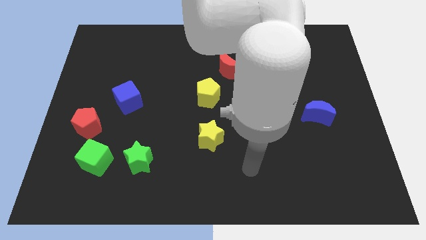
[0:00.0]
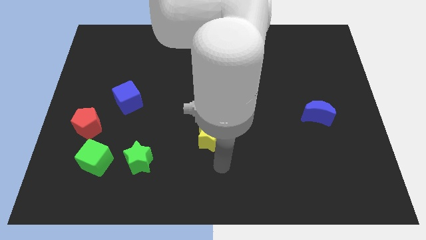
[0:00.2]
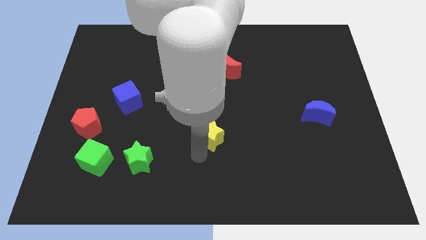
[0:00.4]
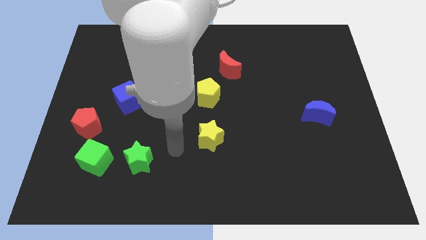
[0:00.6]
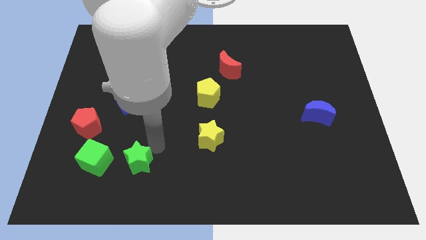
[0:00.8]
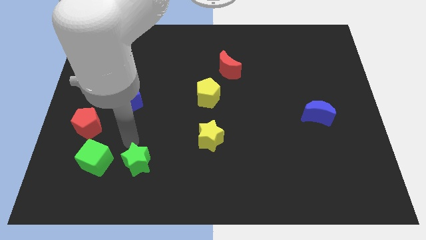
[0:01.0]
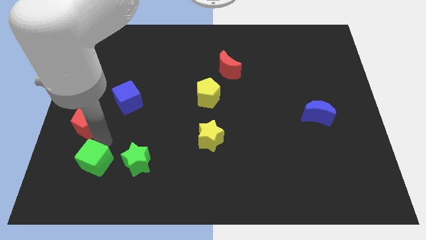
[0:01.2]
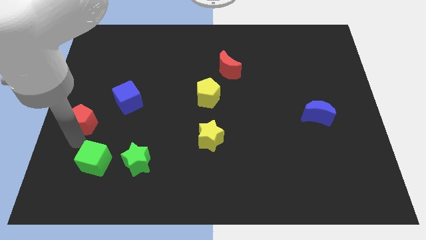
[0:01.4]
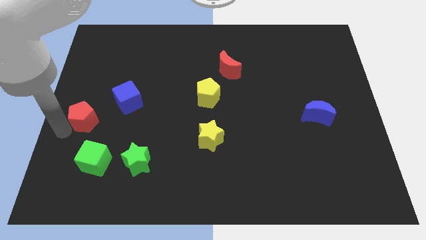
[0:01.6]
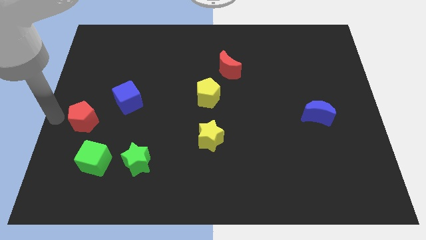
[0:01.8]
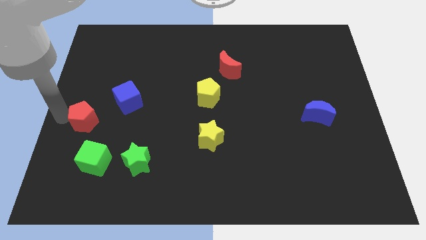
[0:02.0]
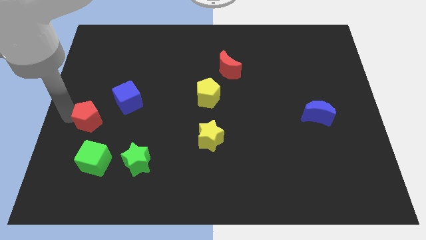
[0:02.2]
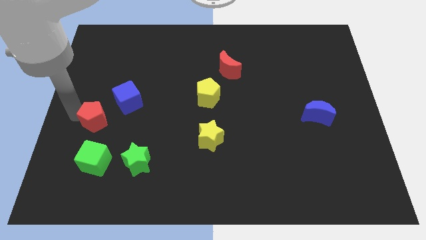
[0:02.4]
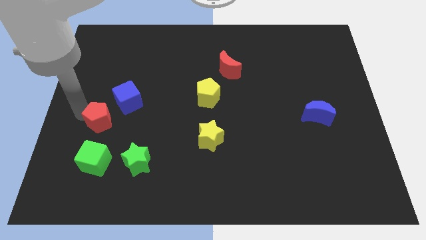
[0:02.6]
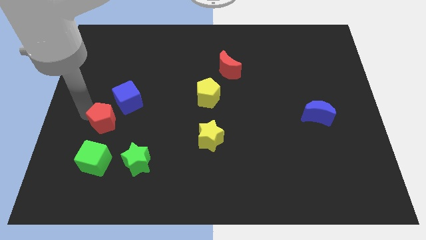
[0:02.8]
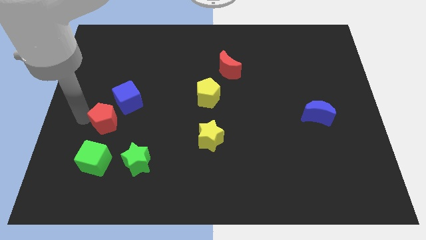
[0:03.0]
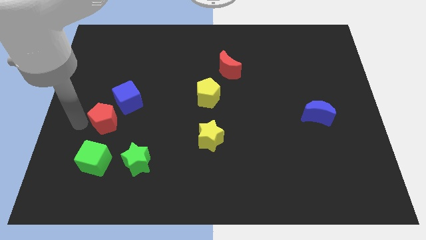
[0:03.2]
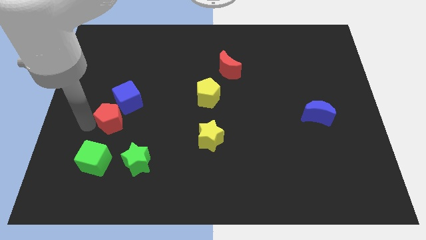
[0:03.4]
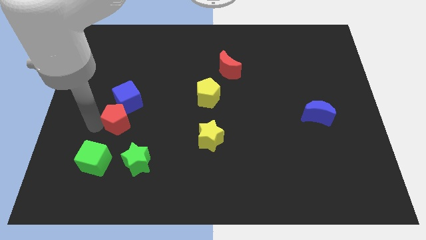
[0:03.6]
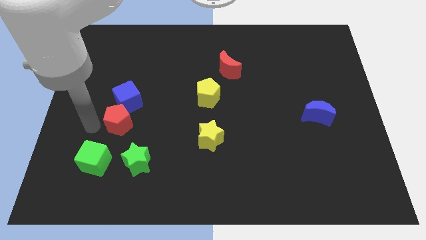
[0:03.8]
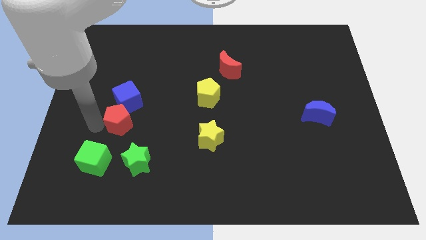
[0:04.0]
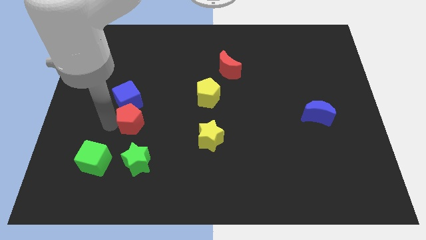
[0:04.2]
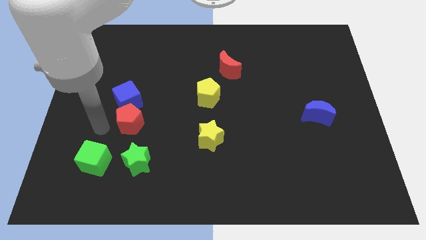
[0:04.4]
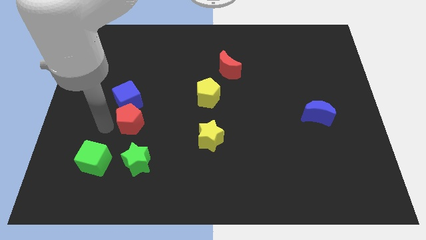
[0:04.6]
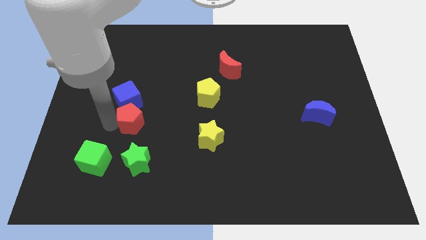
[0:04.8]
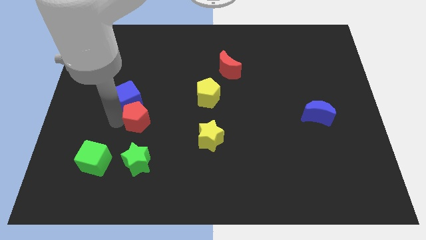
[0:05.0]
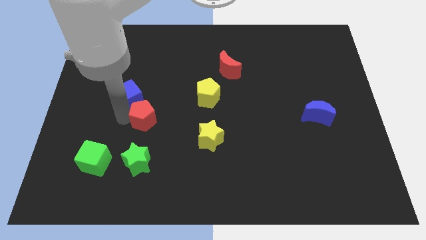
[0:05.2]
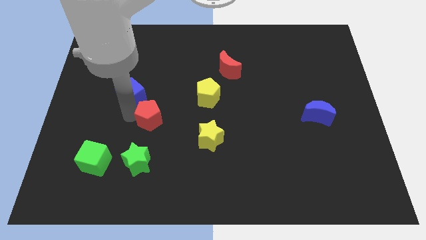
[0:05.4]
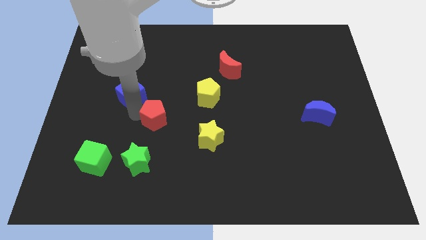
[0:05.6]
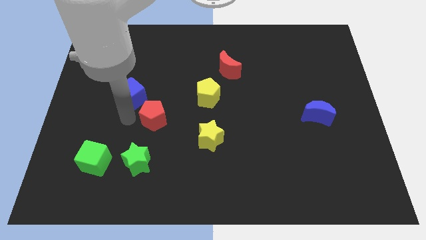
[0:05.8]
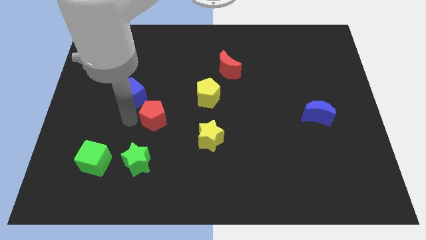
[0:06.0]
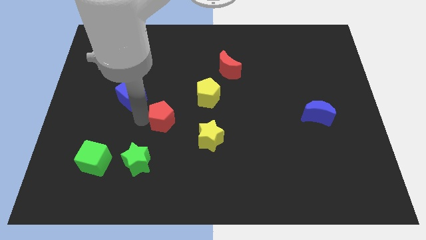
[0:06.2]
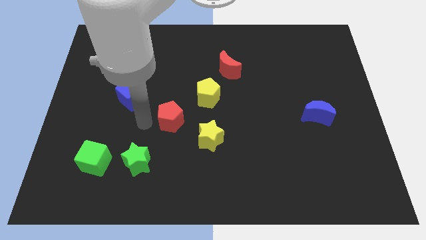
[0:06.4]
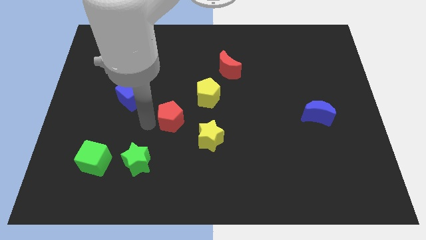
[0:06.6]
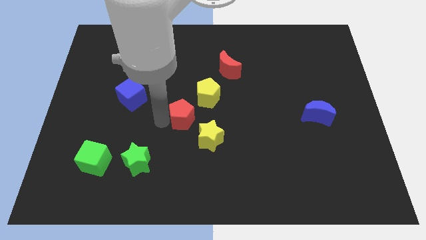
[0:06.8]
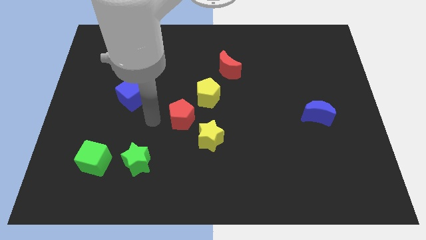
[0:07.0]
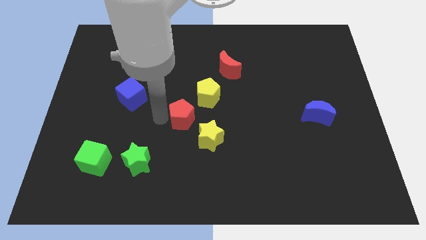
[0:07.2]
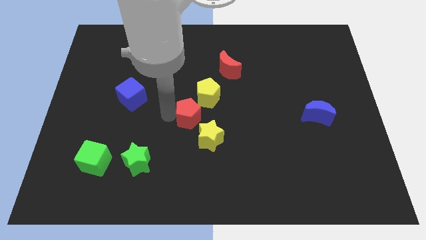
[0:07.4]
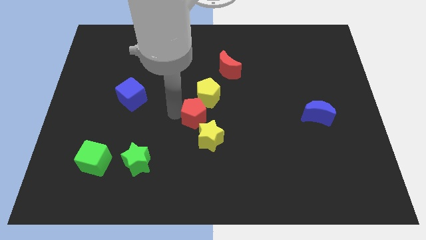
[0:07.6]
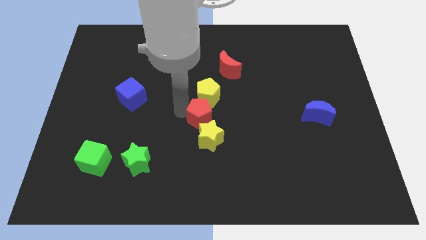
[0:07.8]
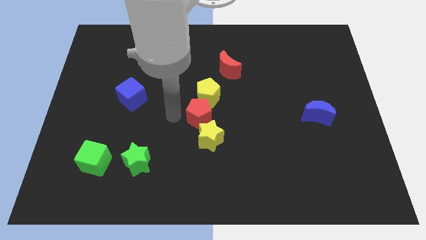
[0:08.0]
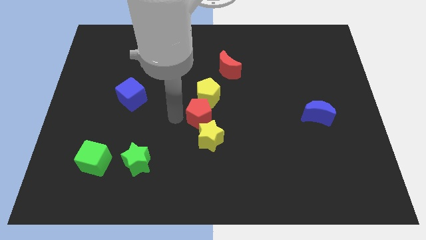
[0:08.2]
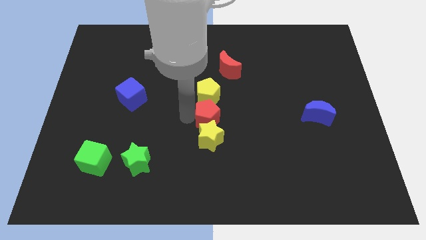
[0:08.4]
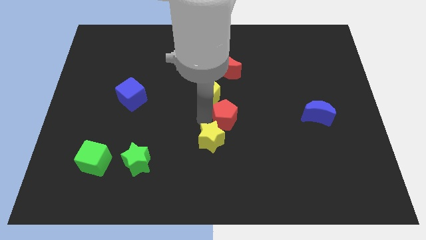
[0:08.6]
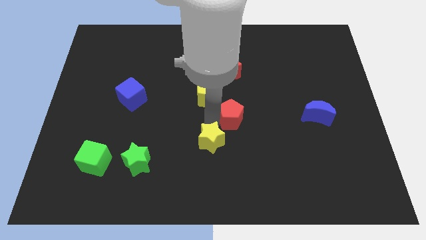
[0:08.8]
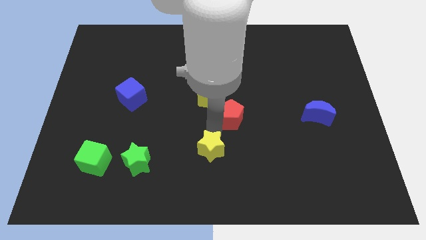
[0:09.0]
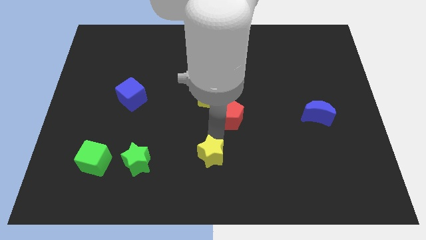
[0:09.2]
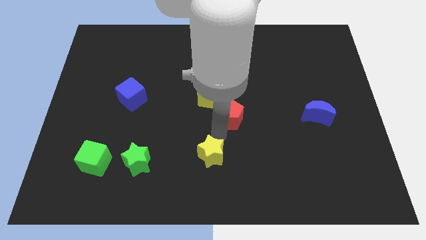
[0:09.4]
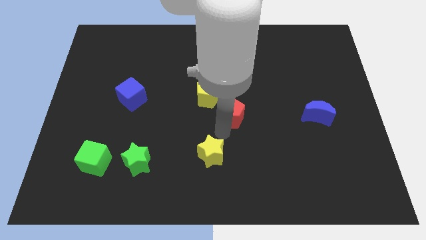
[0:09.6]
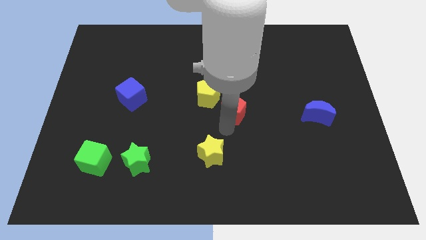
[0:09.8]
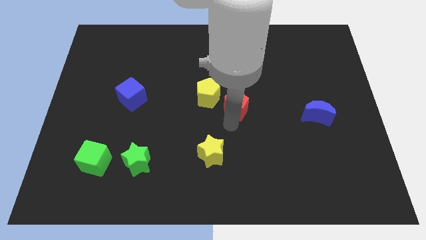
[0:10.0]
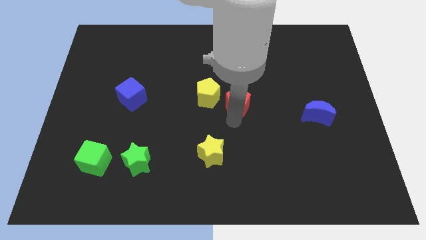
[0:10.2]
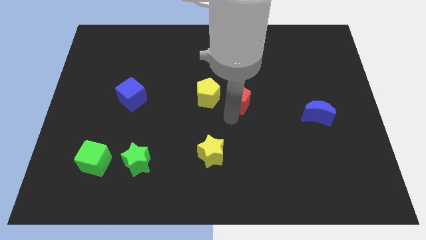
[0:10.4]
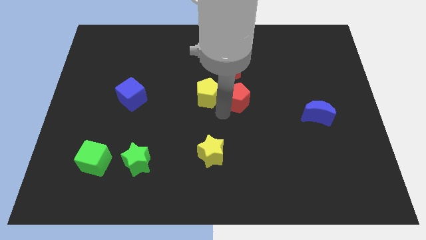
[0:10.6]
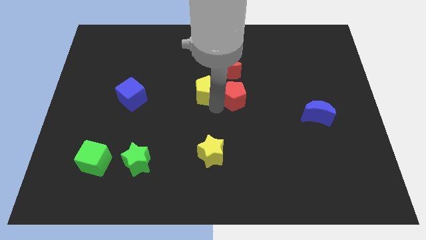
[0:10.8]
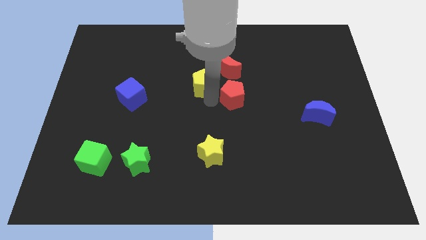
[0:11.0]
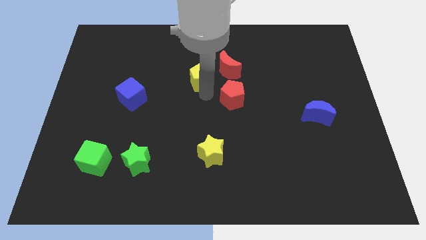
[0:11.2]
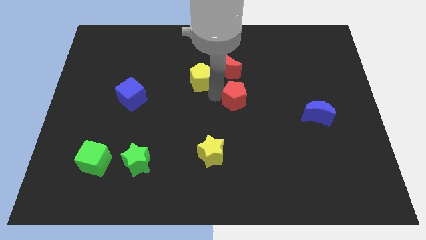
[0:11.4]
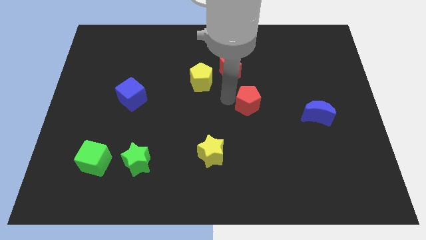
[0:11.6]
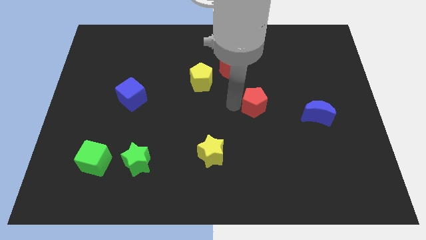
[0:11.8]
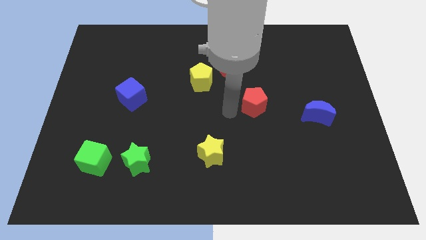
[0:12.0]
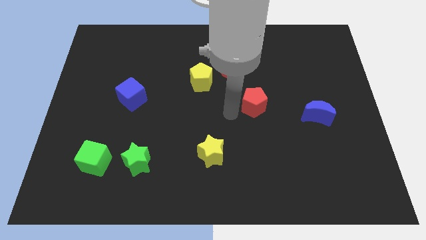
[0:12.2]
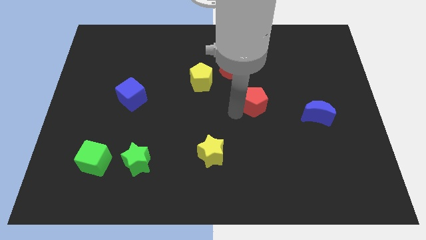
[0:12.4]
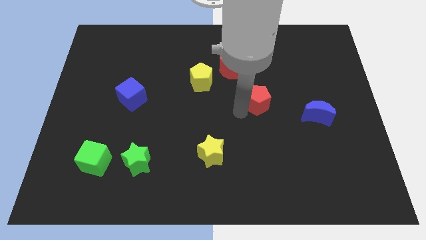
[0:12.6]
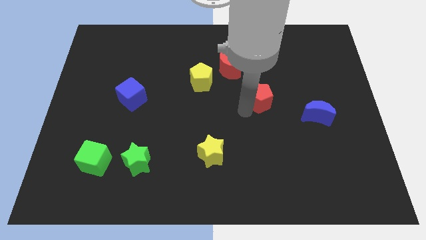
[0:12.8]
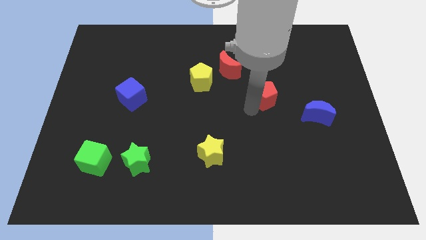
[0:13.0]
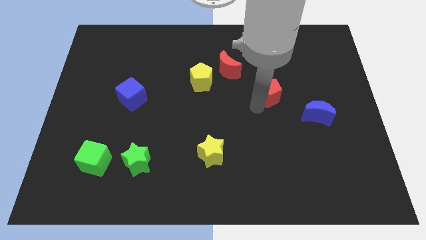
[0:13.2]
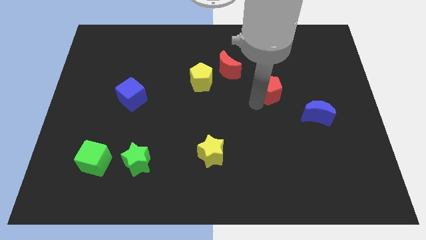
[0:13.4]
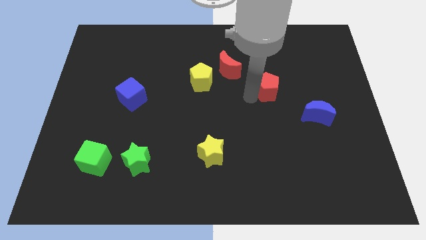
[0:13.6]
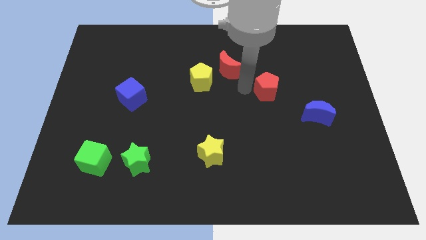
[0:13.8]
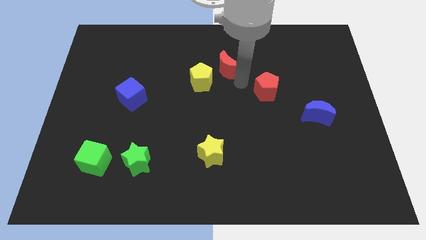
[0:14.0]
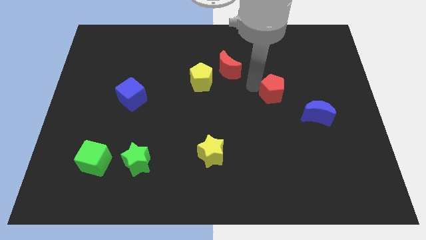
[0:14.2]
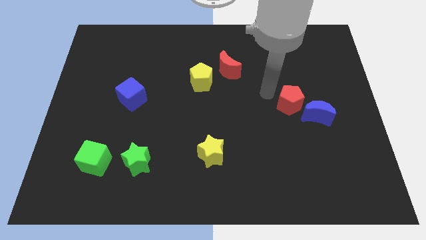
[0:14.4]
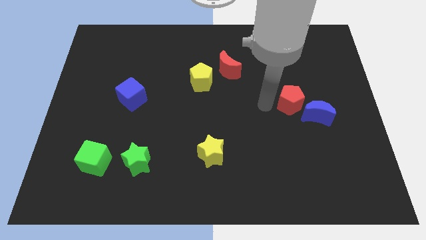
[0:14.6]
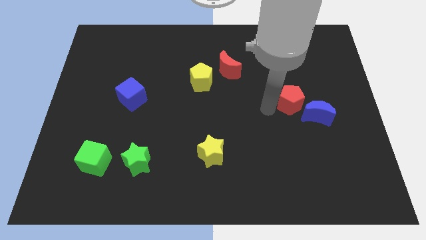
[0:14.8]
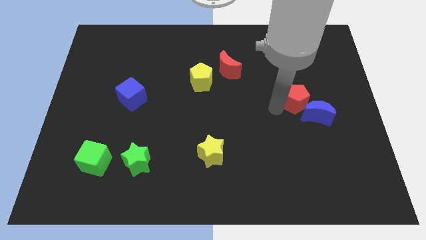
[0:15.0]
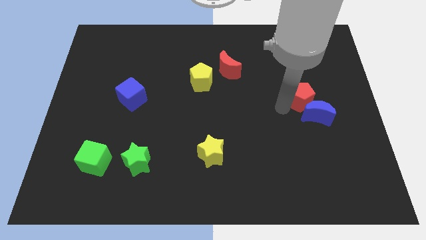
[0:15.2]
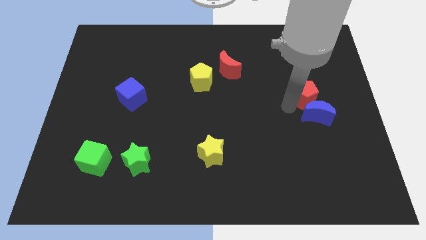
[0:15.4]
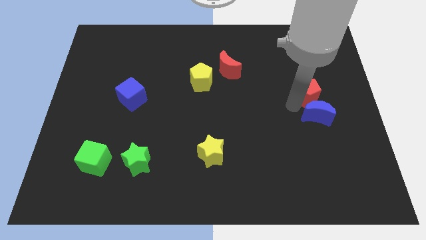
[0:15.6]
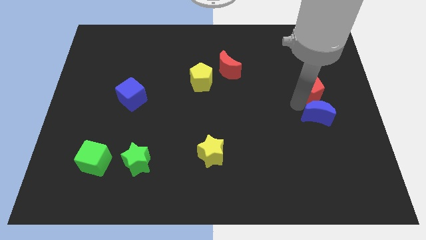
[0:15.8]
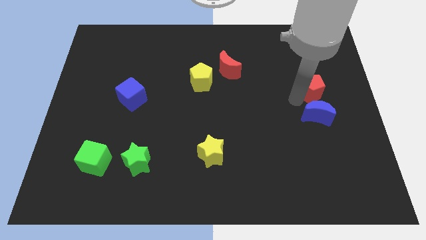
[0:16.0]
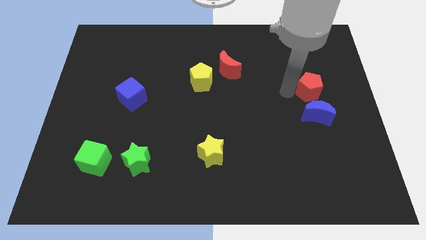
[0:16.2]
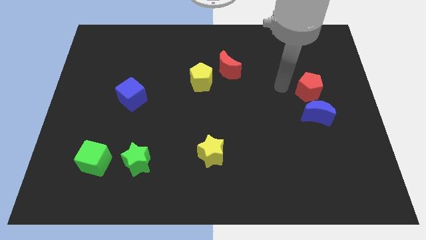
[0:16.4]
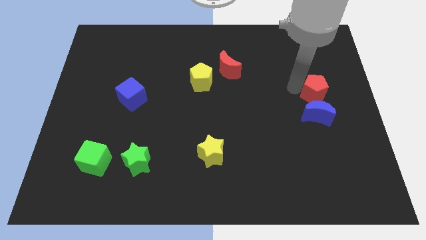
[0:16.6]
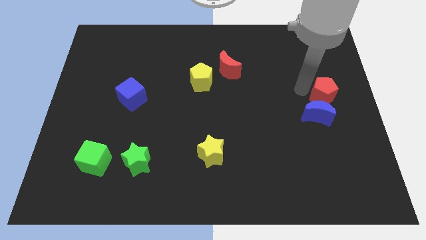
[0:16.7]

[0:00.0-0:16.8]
put the red pentagon to the right side of the board
